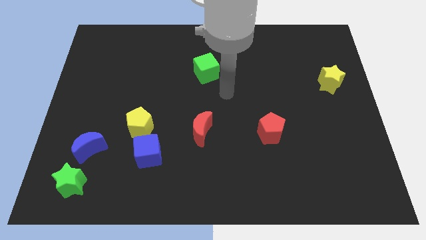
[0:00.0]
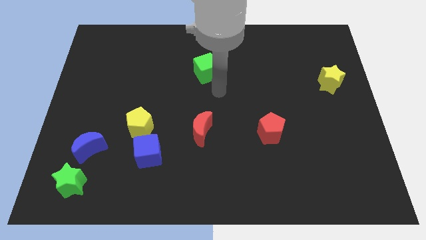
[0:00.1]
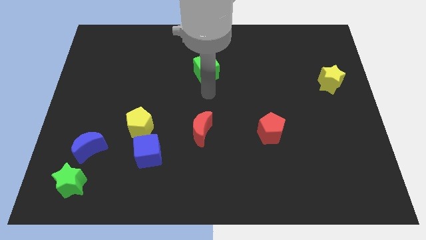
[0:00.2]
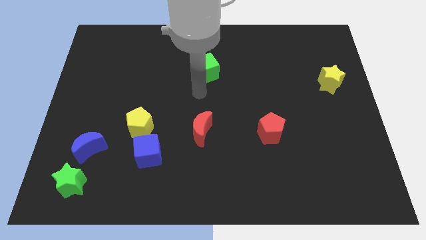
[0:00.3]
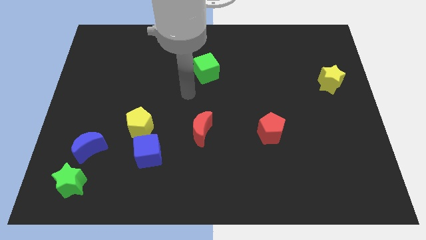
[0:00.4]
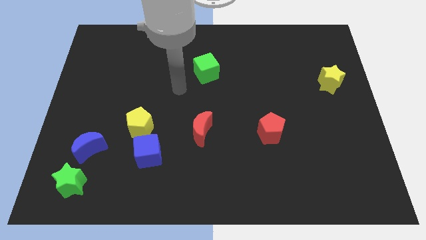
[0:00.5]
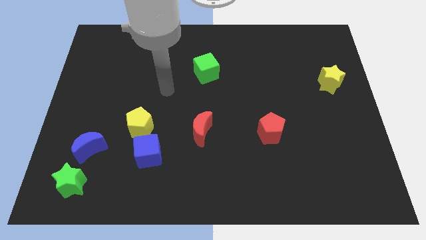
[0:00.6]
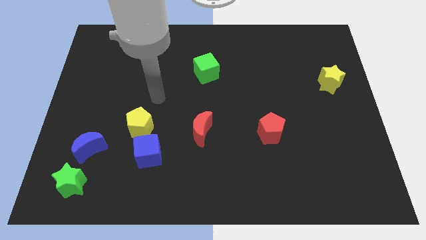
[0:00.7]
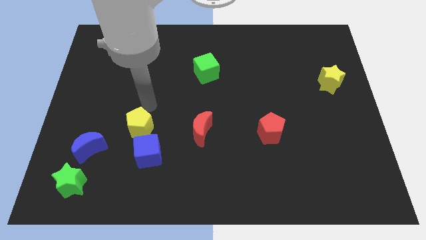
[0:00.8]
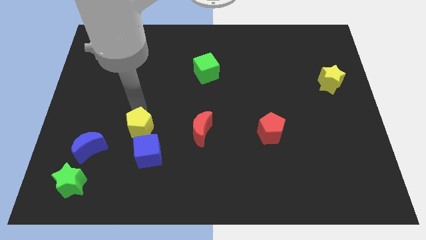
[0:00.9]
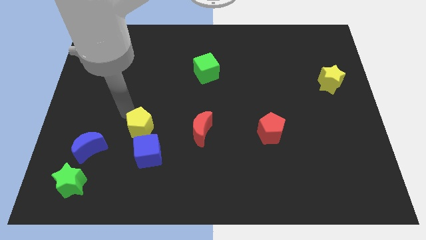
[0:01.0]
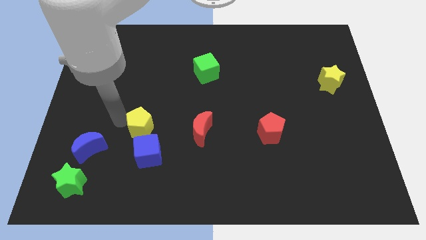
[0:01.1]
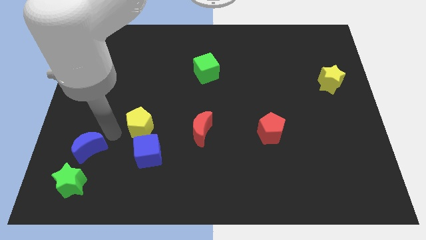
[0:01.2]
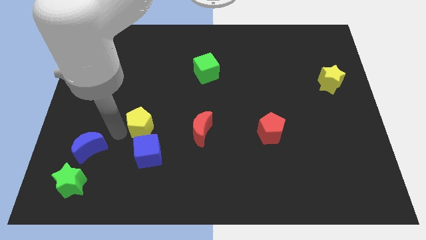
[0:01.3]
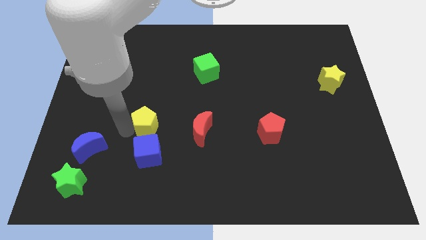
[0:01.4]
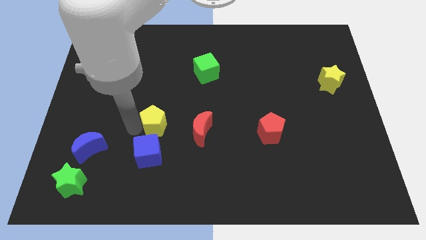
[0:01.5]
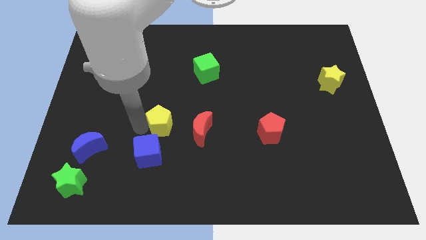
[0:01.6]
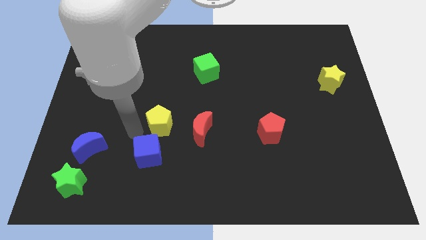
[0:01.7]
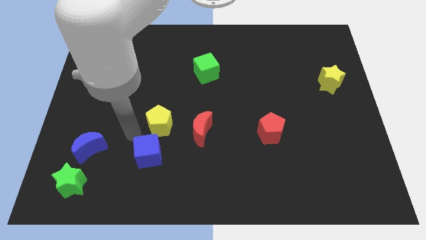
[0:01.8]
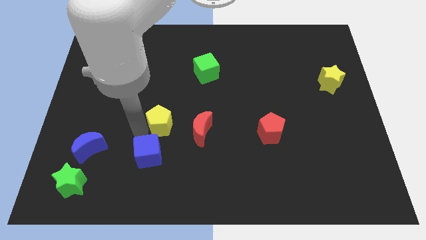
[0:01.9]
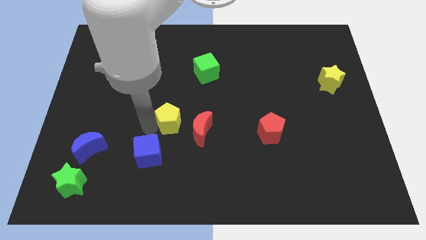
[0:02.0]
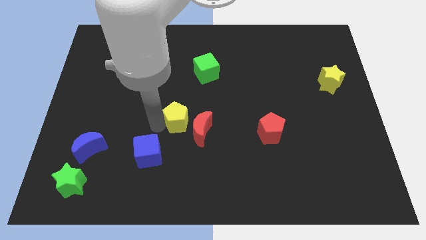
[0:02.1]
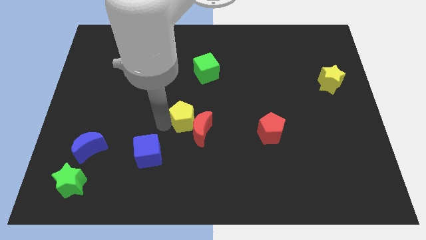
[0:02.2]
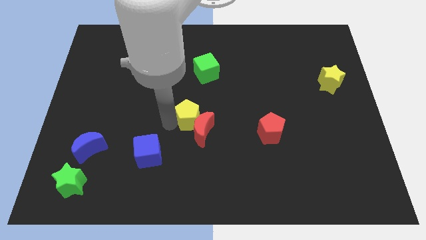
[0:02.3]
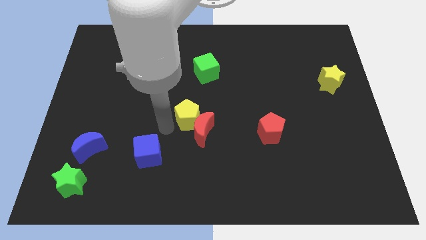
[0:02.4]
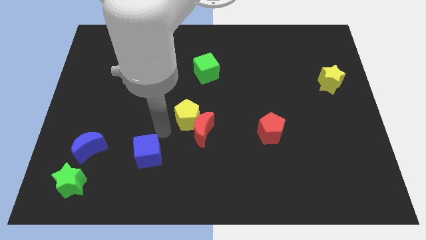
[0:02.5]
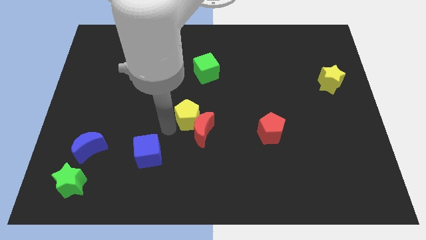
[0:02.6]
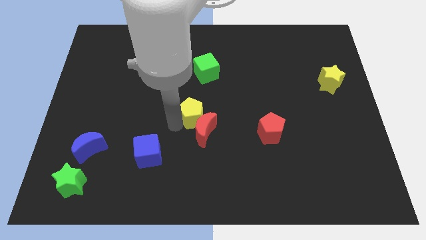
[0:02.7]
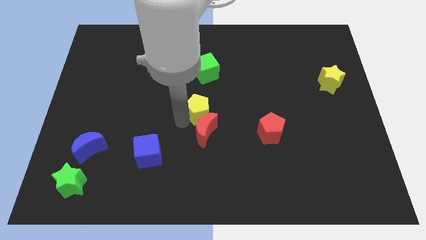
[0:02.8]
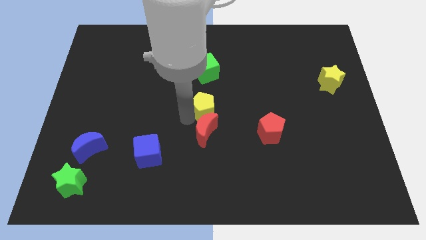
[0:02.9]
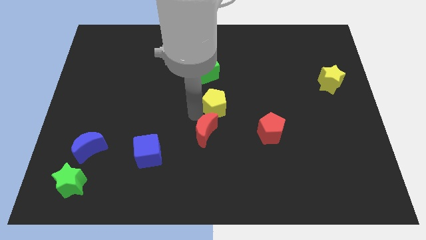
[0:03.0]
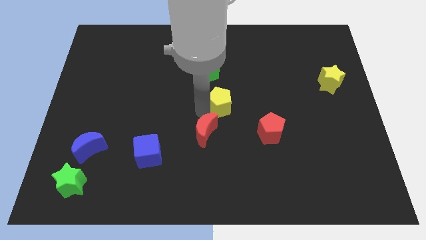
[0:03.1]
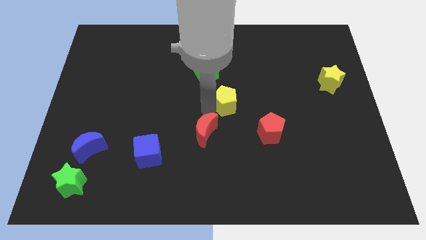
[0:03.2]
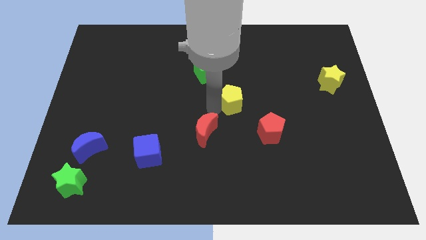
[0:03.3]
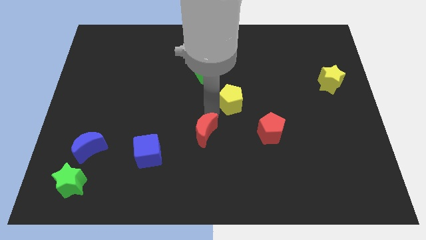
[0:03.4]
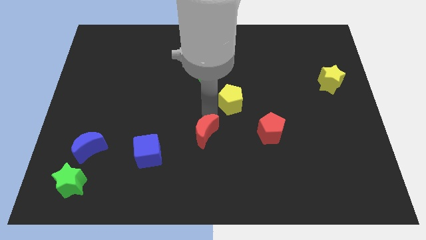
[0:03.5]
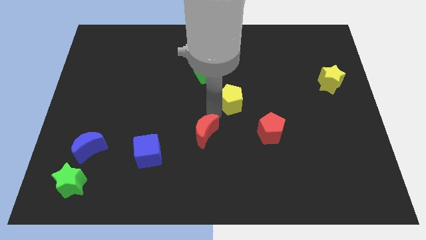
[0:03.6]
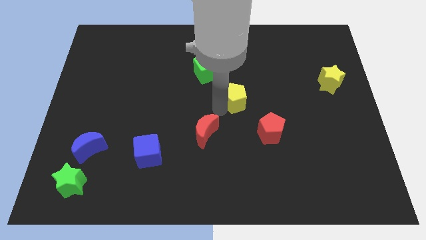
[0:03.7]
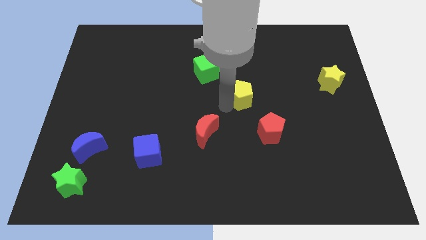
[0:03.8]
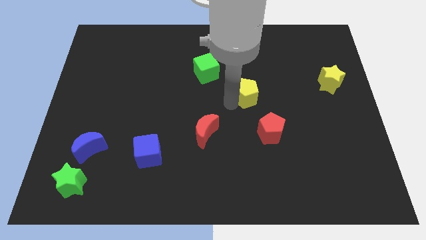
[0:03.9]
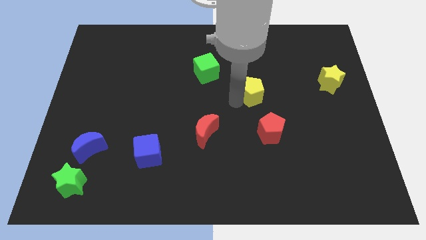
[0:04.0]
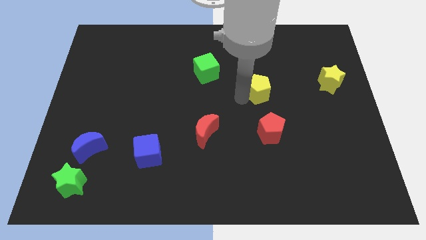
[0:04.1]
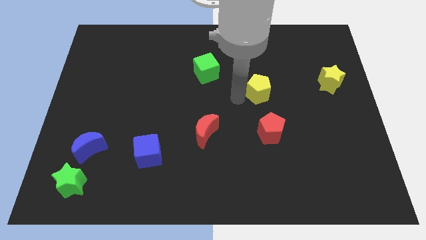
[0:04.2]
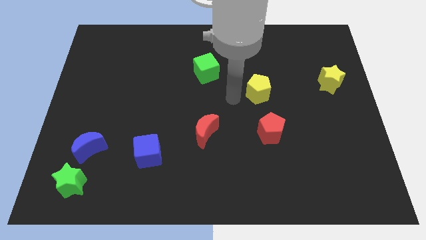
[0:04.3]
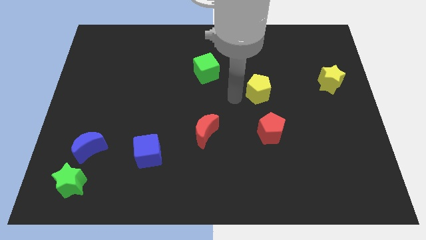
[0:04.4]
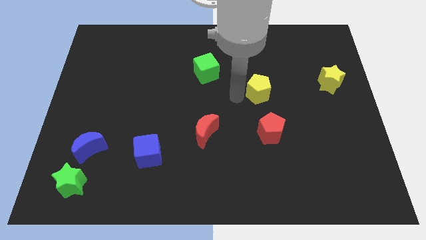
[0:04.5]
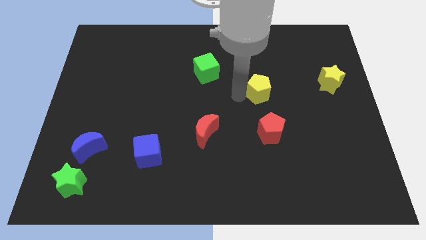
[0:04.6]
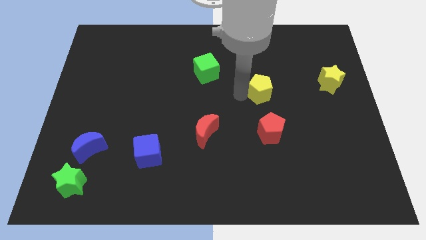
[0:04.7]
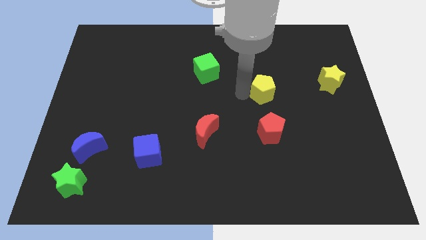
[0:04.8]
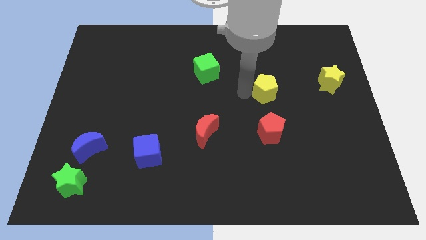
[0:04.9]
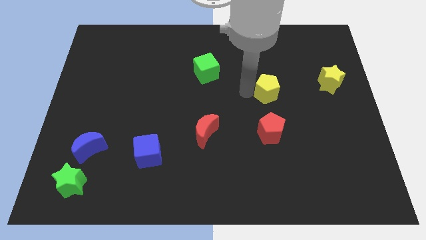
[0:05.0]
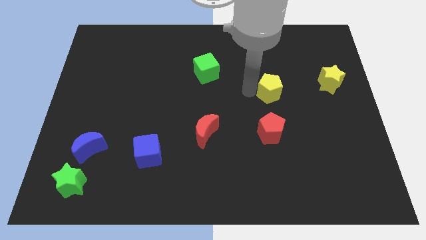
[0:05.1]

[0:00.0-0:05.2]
move the yellow pentagon to the left of the yellow star

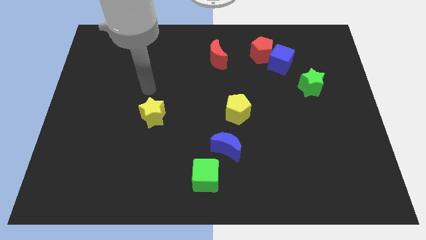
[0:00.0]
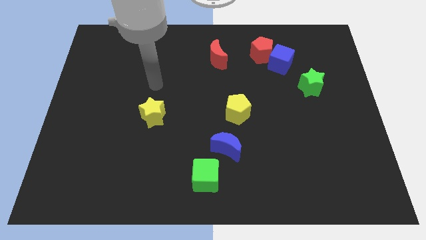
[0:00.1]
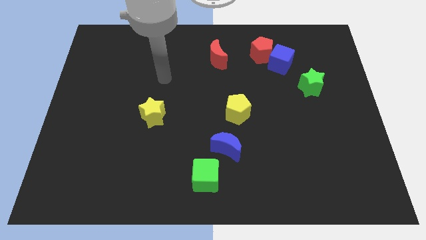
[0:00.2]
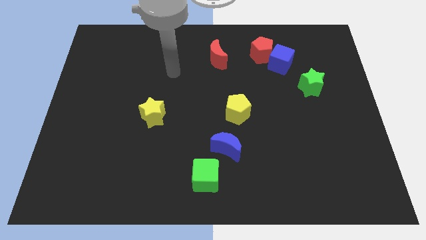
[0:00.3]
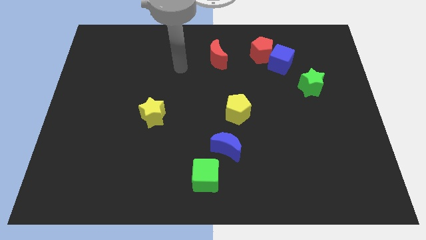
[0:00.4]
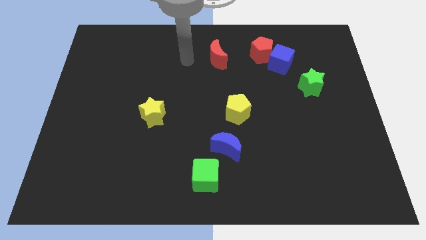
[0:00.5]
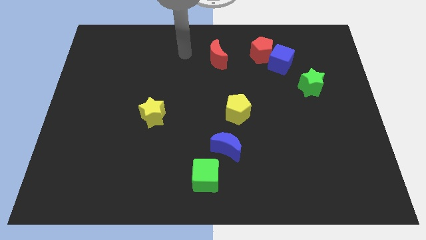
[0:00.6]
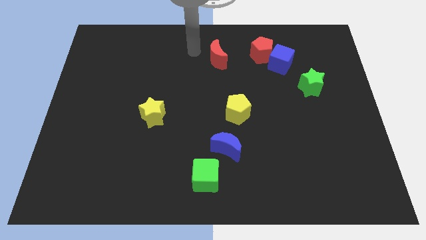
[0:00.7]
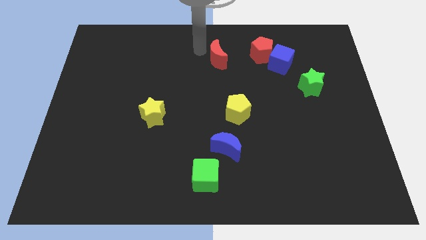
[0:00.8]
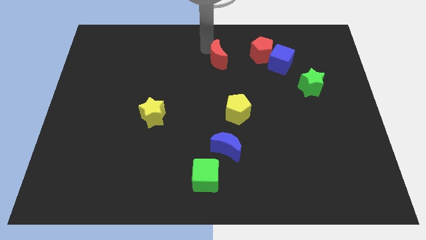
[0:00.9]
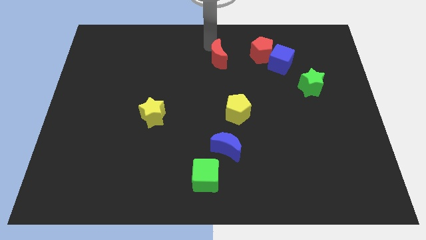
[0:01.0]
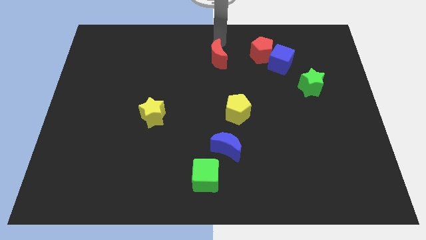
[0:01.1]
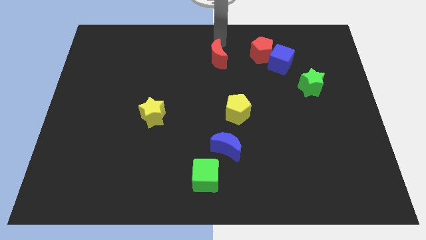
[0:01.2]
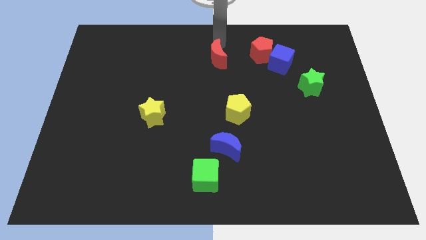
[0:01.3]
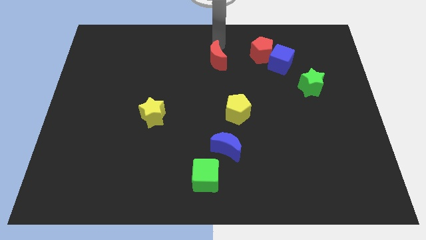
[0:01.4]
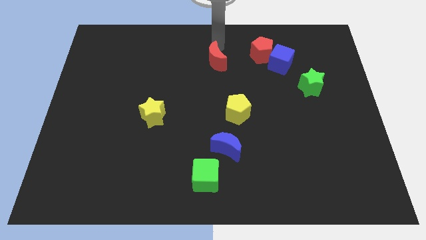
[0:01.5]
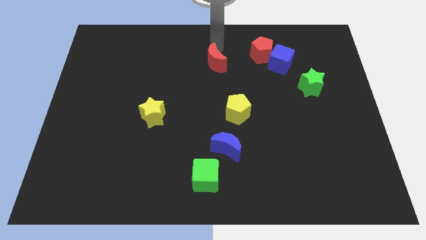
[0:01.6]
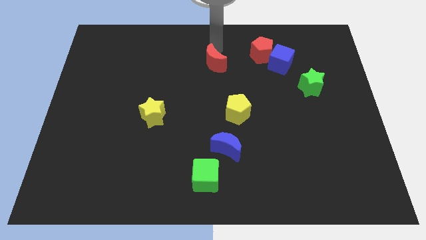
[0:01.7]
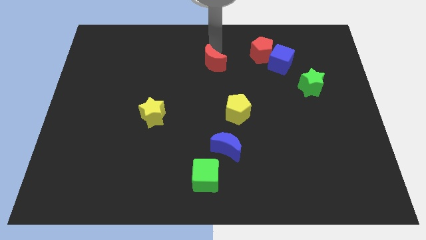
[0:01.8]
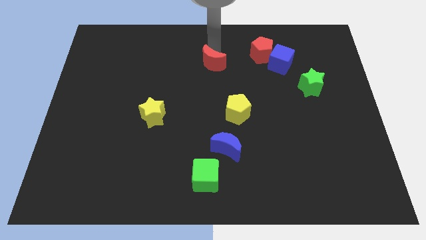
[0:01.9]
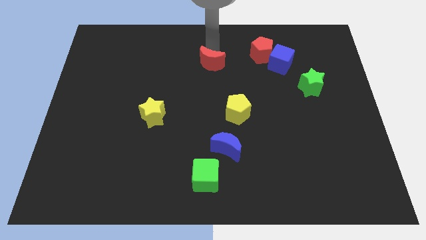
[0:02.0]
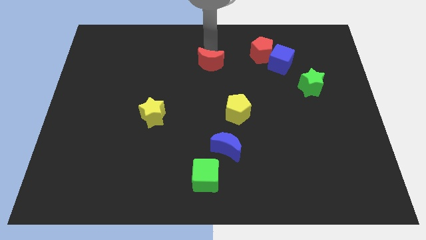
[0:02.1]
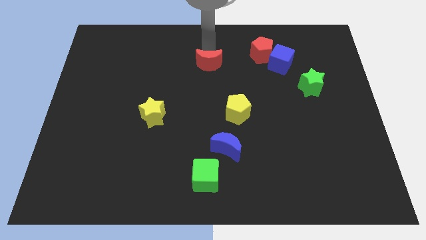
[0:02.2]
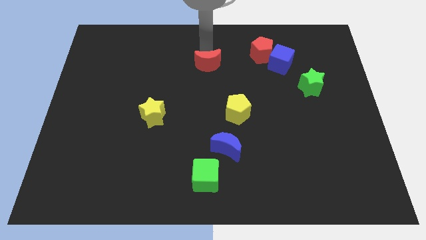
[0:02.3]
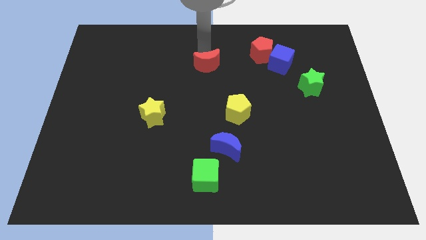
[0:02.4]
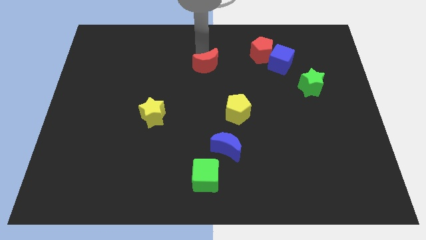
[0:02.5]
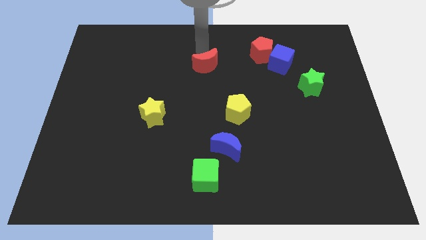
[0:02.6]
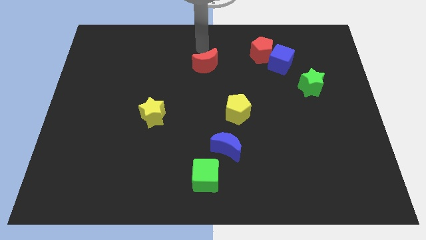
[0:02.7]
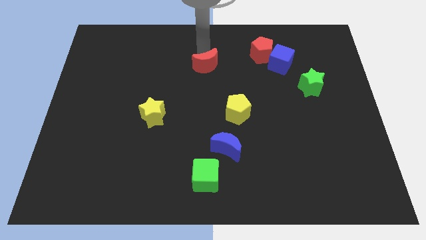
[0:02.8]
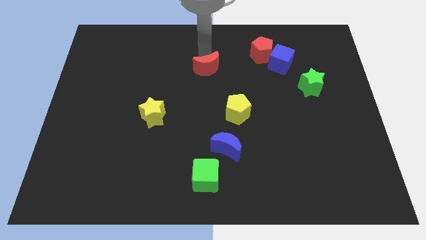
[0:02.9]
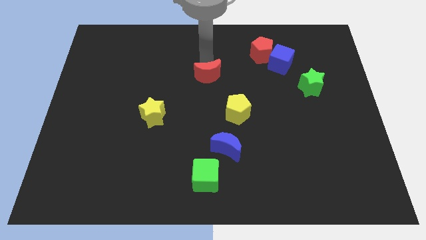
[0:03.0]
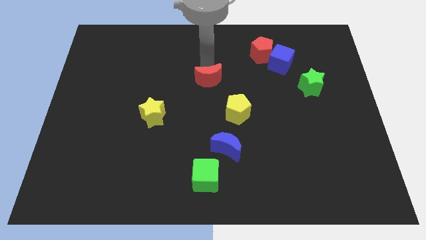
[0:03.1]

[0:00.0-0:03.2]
push the red moon to the top left of the yellow pentagon
